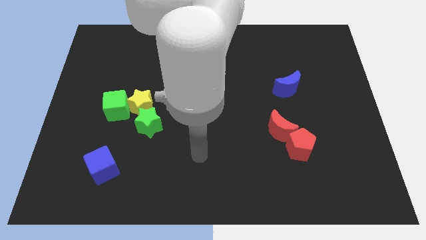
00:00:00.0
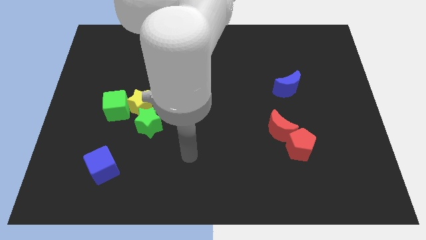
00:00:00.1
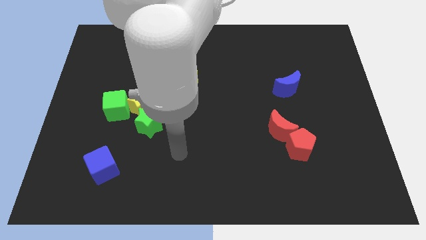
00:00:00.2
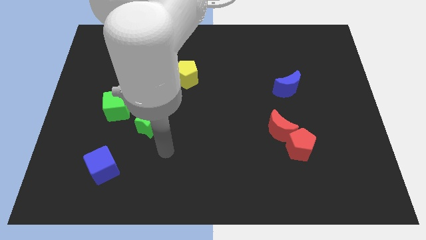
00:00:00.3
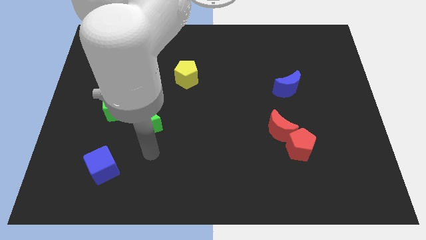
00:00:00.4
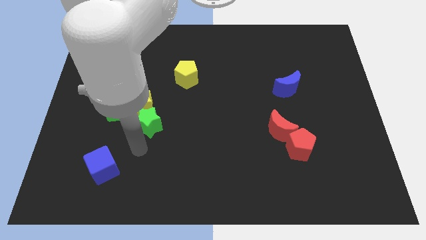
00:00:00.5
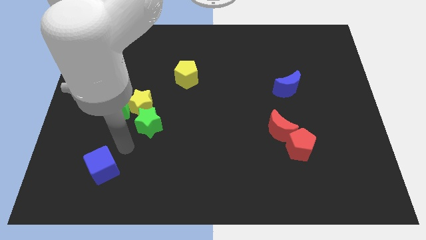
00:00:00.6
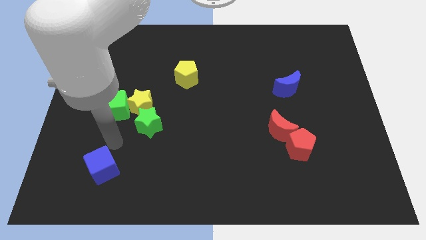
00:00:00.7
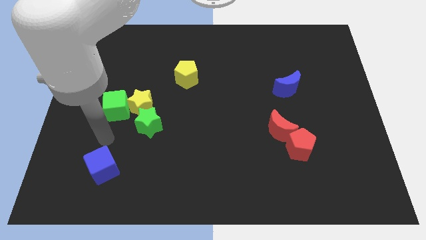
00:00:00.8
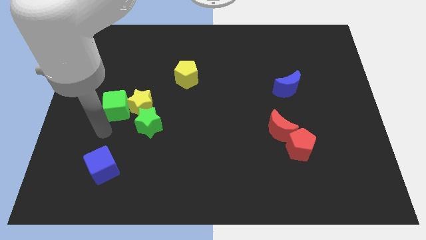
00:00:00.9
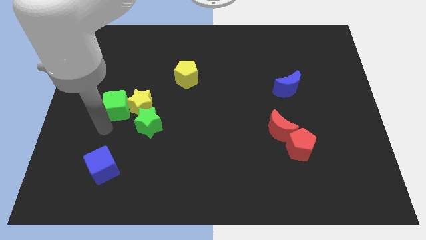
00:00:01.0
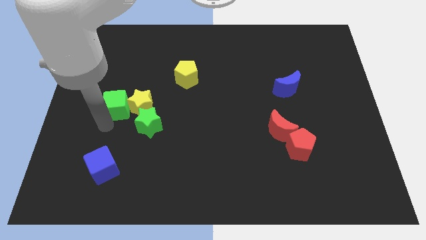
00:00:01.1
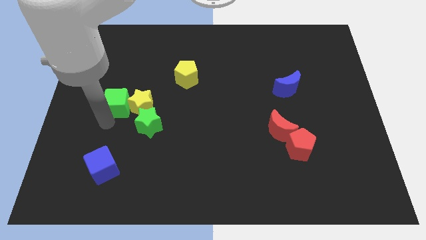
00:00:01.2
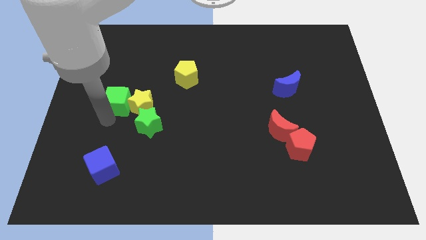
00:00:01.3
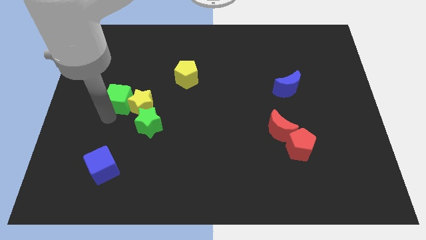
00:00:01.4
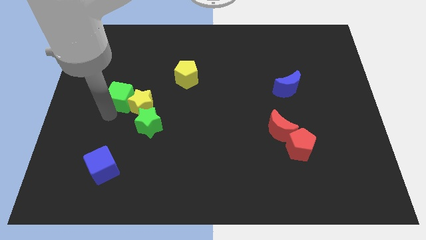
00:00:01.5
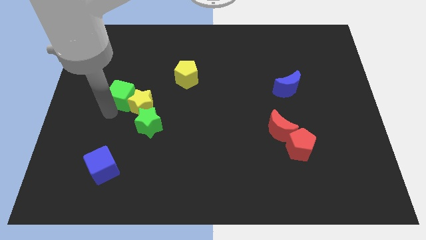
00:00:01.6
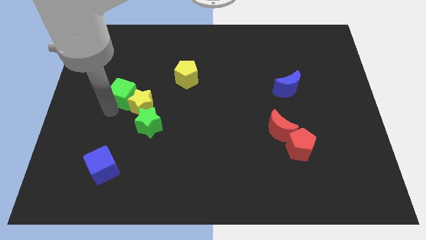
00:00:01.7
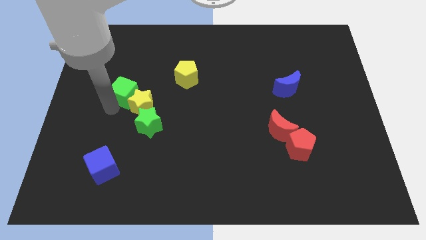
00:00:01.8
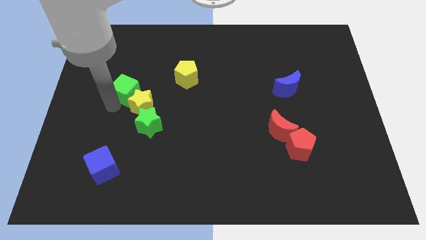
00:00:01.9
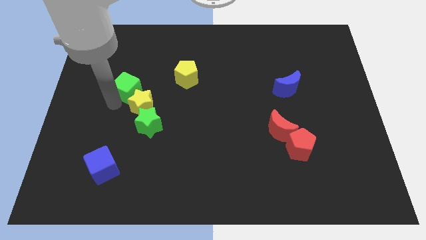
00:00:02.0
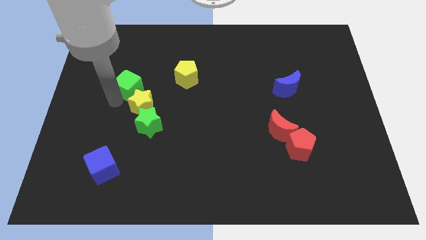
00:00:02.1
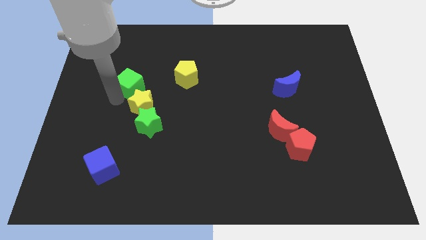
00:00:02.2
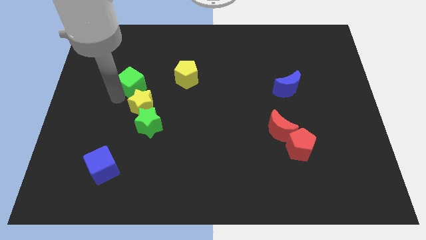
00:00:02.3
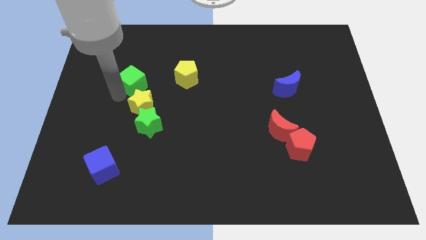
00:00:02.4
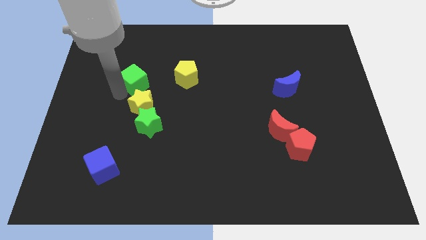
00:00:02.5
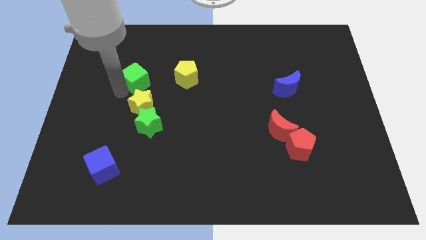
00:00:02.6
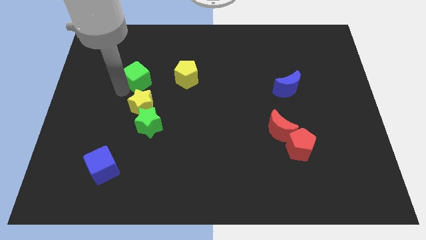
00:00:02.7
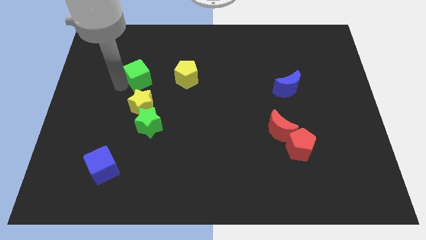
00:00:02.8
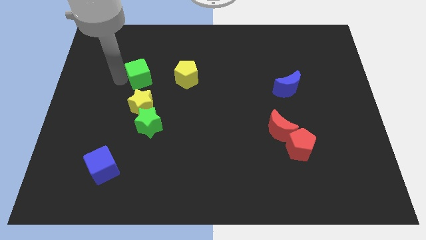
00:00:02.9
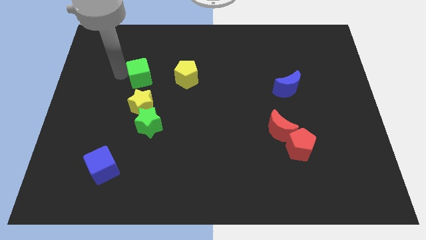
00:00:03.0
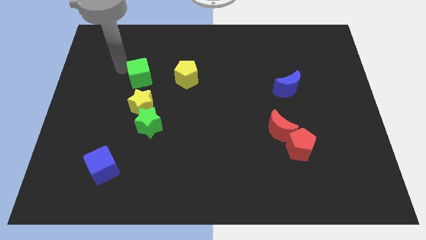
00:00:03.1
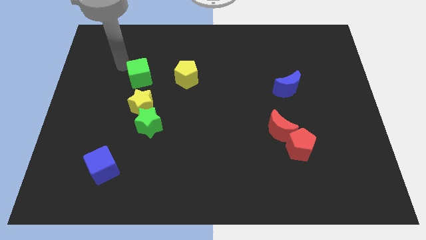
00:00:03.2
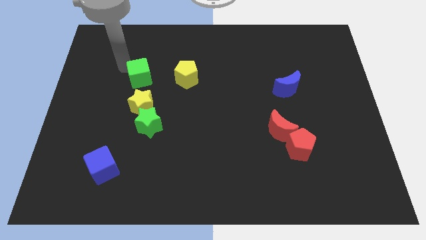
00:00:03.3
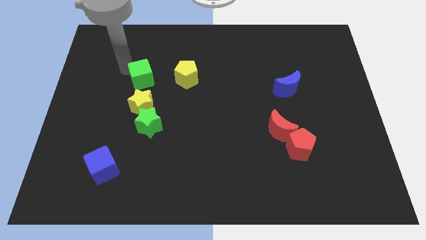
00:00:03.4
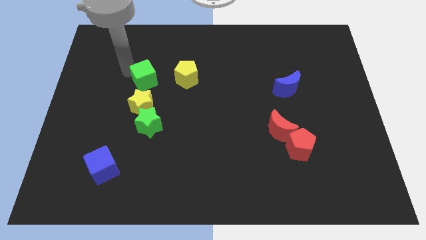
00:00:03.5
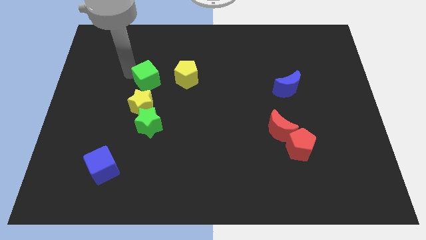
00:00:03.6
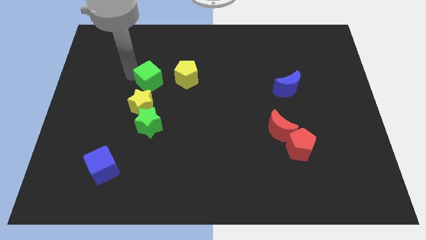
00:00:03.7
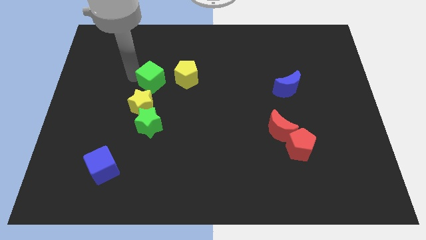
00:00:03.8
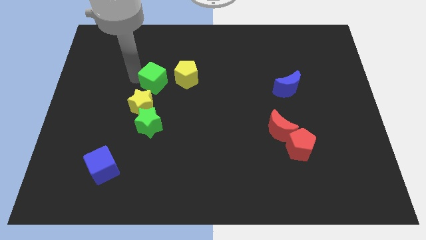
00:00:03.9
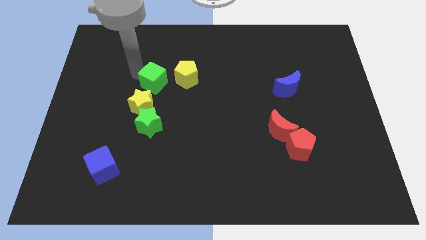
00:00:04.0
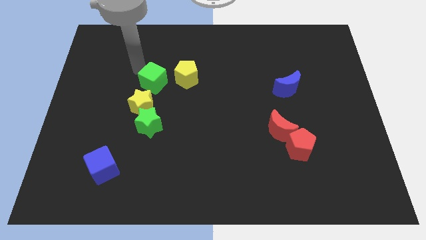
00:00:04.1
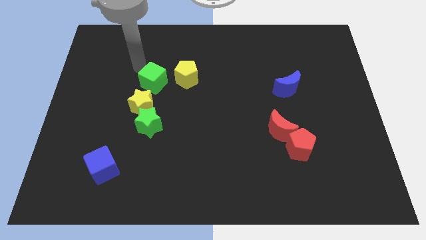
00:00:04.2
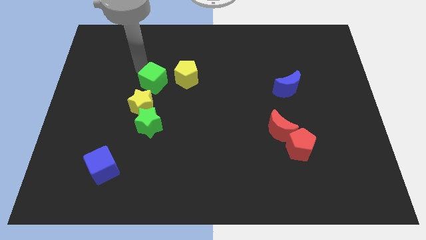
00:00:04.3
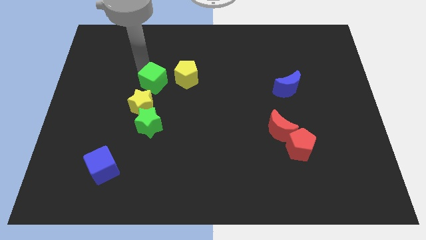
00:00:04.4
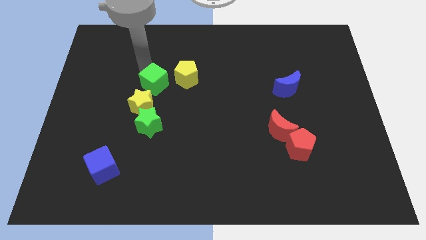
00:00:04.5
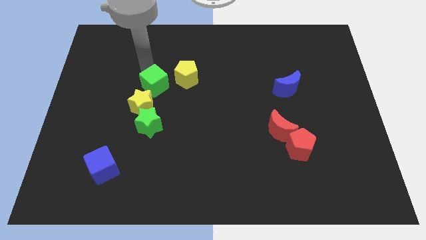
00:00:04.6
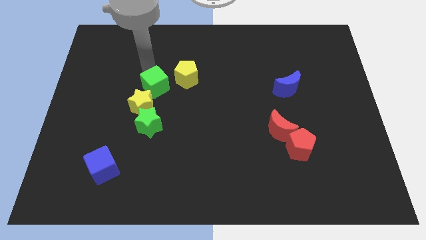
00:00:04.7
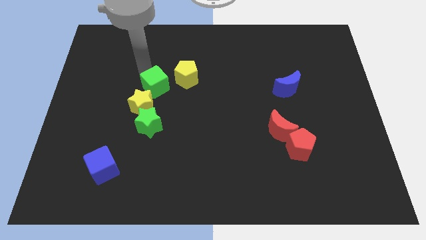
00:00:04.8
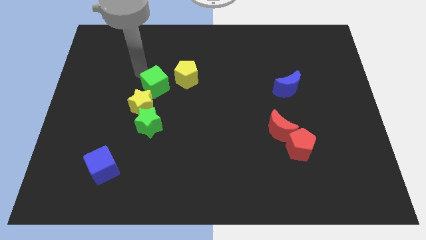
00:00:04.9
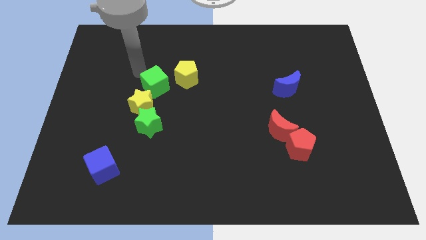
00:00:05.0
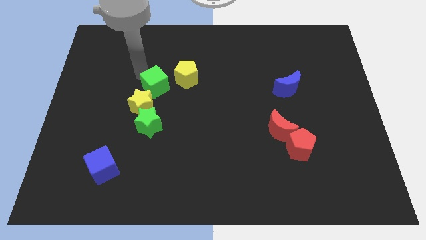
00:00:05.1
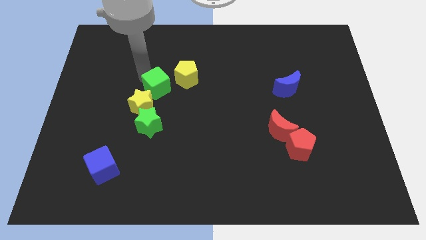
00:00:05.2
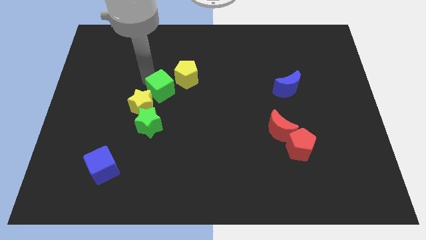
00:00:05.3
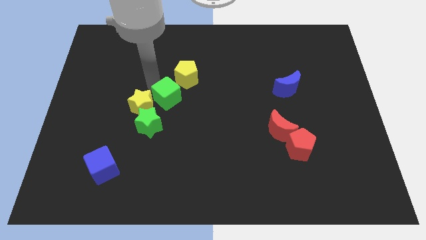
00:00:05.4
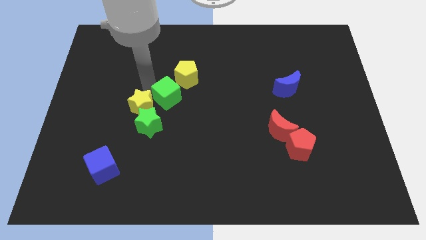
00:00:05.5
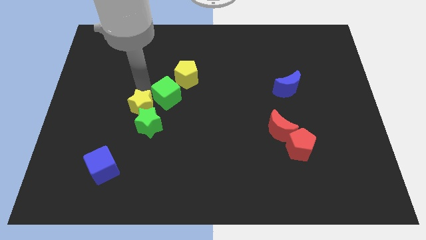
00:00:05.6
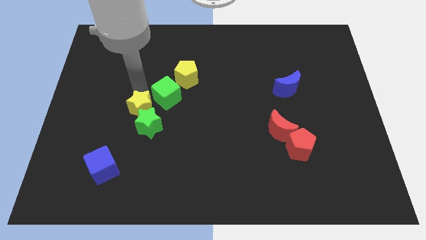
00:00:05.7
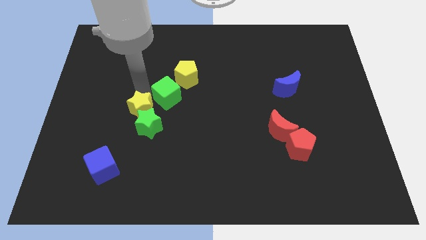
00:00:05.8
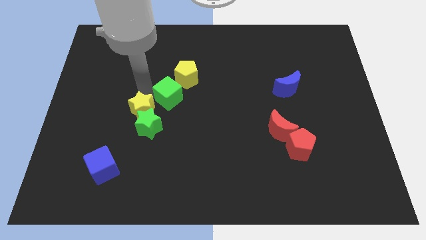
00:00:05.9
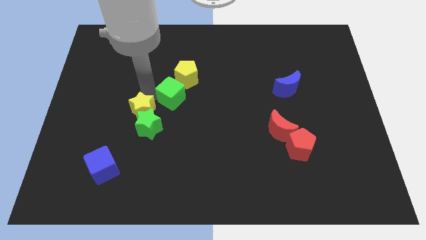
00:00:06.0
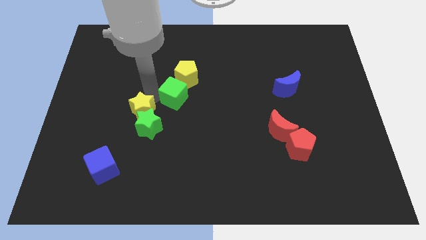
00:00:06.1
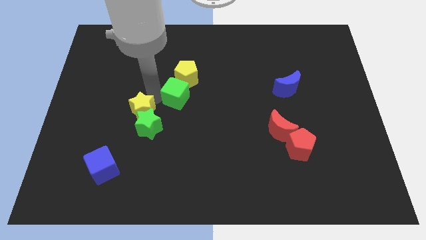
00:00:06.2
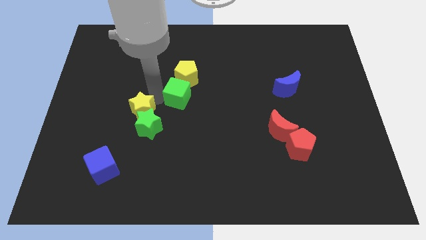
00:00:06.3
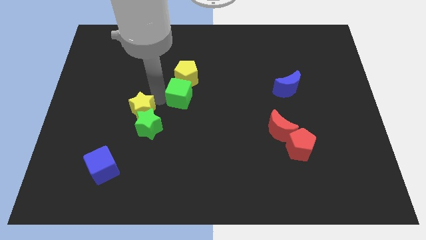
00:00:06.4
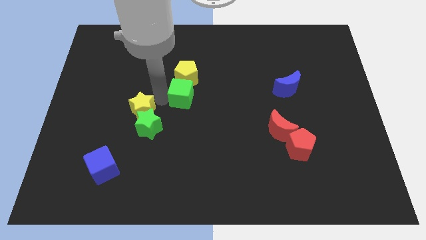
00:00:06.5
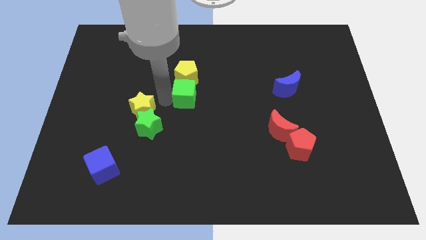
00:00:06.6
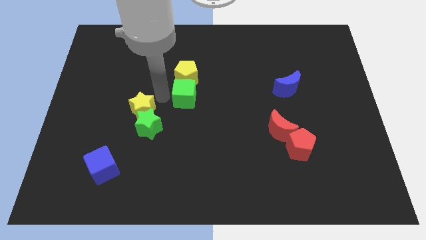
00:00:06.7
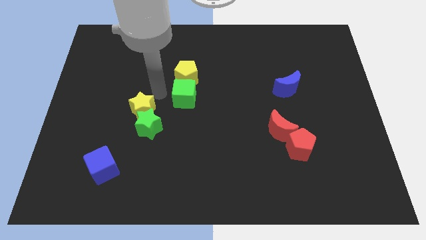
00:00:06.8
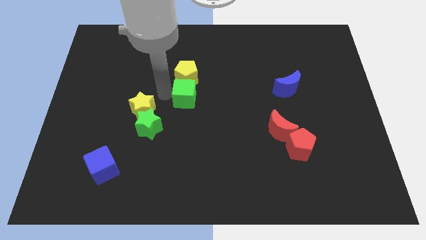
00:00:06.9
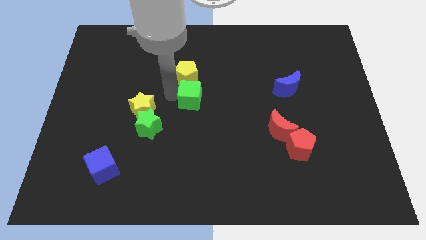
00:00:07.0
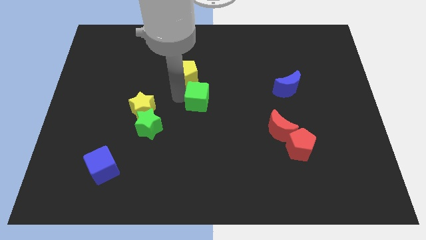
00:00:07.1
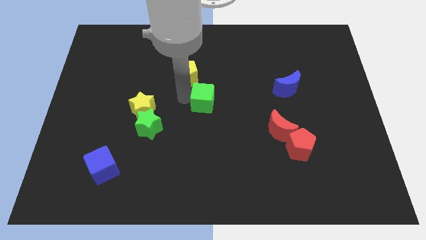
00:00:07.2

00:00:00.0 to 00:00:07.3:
slide the green cube right

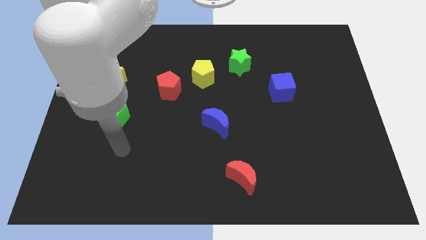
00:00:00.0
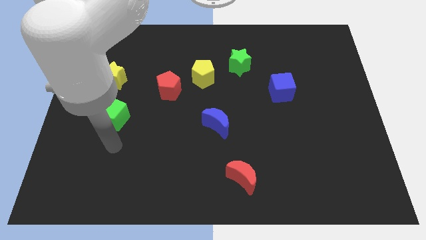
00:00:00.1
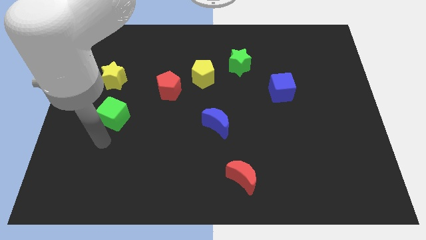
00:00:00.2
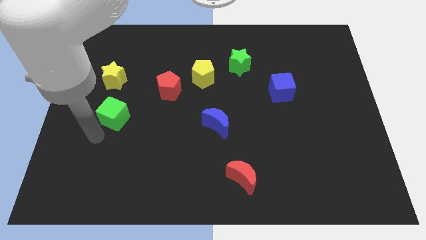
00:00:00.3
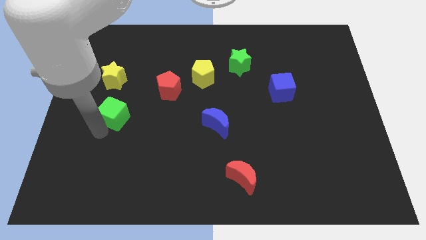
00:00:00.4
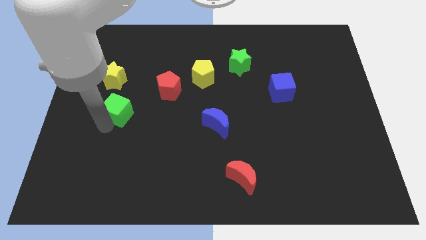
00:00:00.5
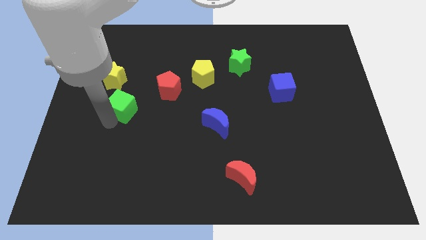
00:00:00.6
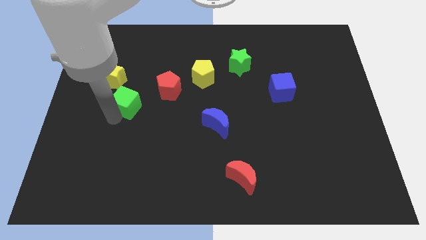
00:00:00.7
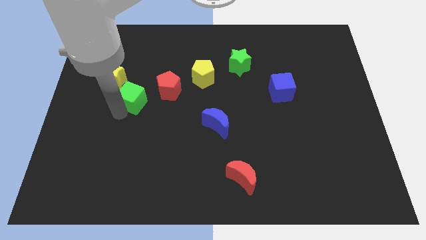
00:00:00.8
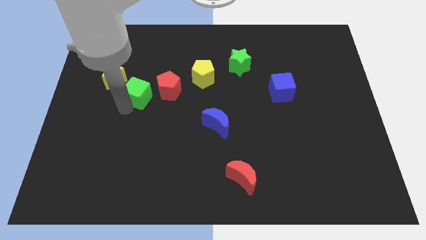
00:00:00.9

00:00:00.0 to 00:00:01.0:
slide the green cube slightly up and right

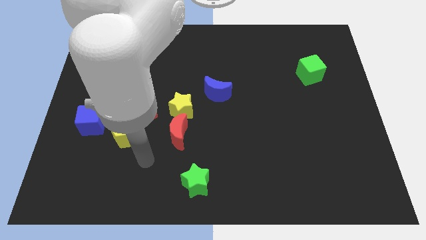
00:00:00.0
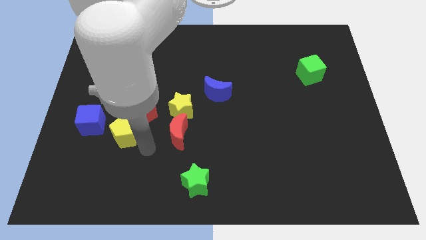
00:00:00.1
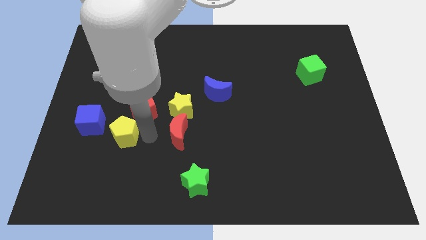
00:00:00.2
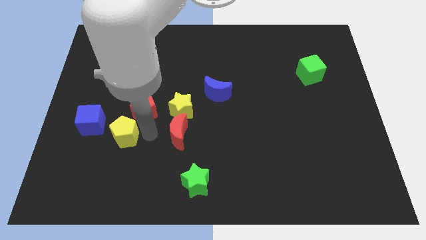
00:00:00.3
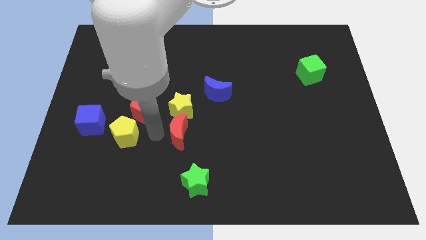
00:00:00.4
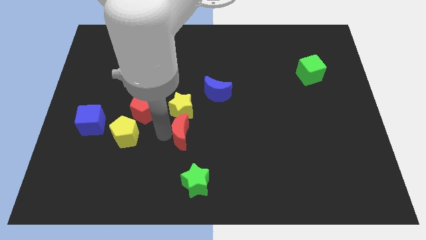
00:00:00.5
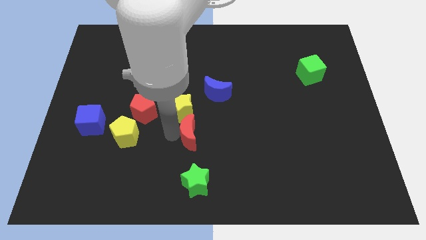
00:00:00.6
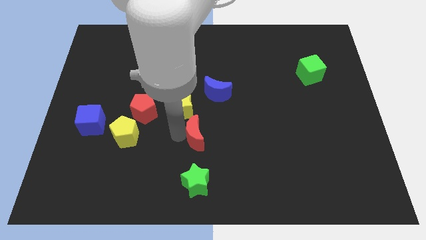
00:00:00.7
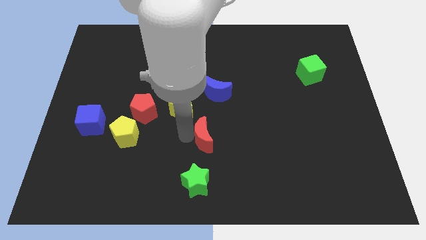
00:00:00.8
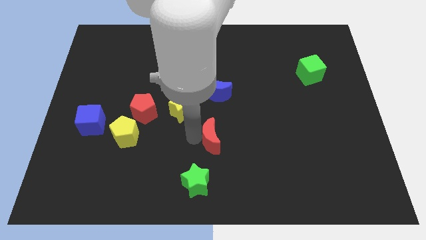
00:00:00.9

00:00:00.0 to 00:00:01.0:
slightly push the red moon right
